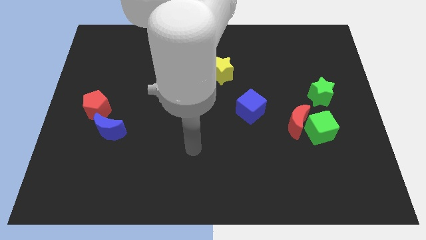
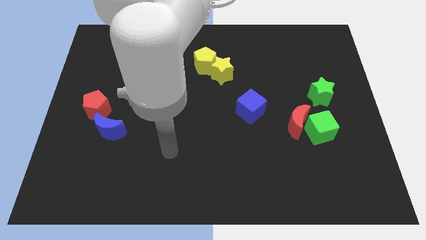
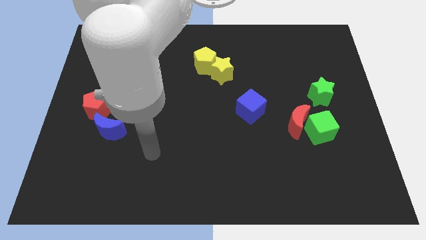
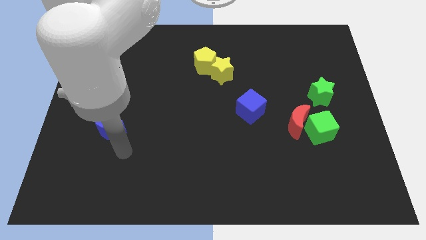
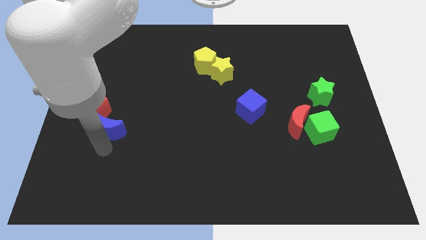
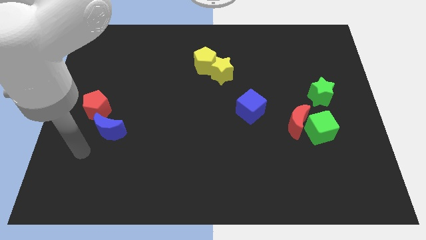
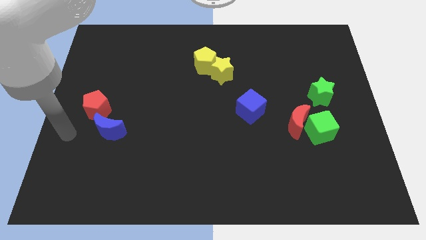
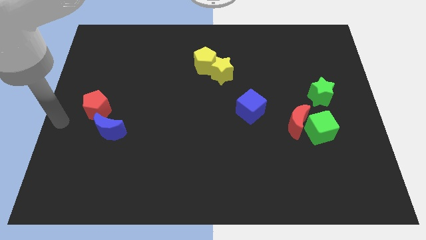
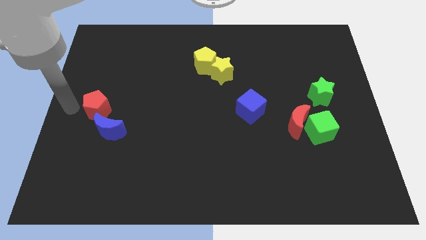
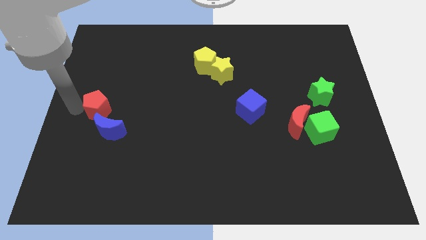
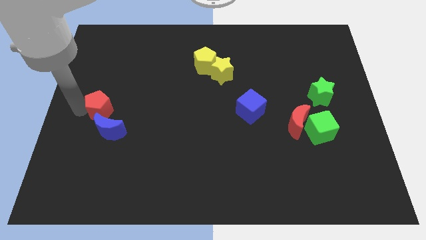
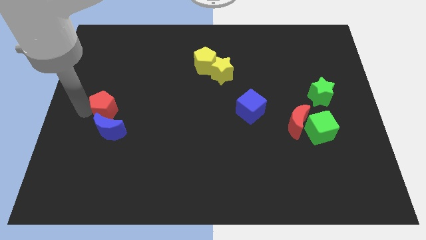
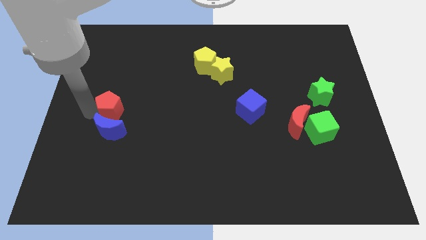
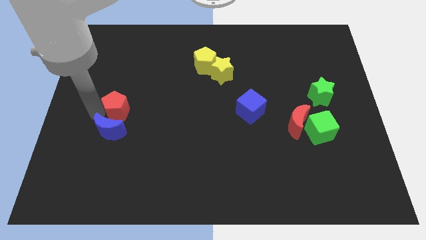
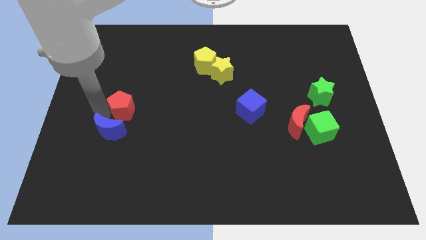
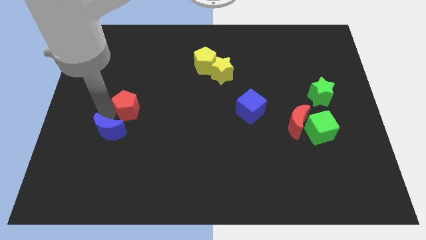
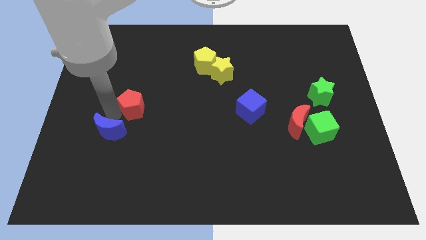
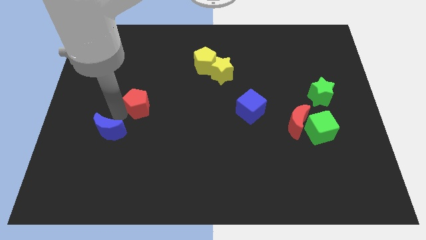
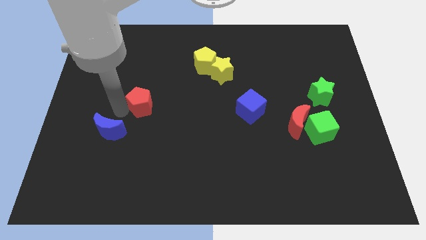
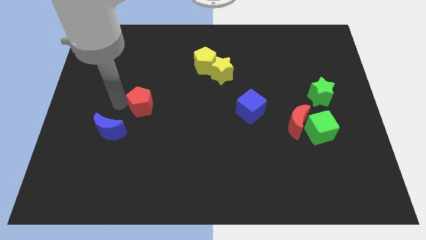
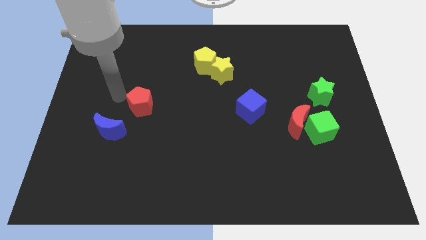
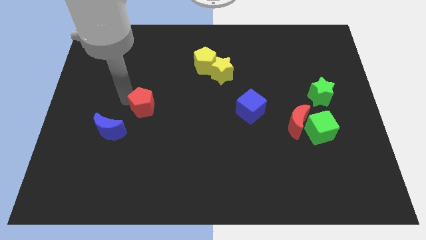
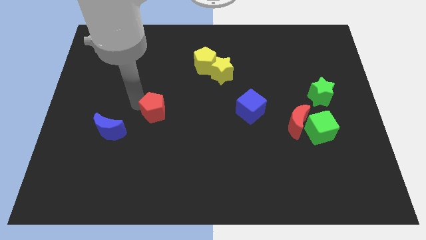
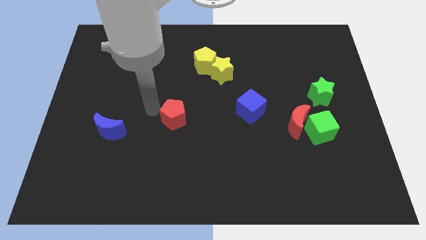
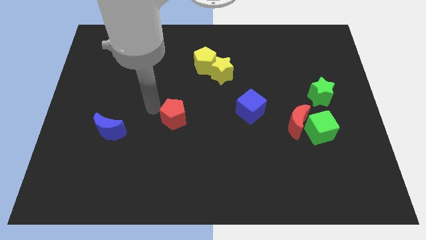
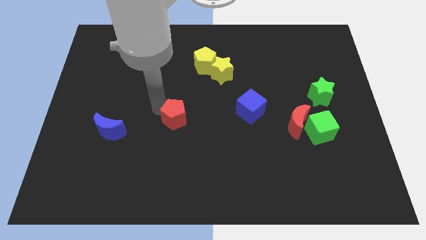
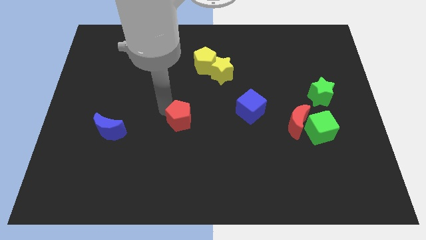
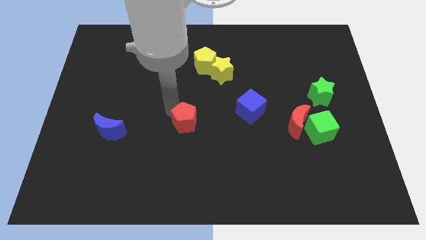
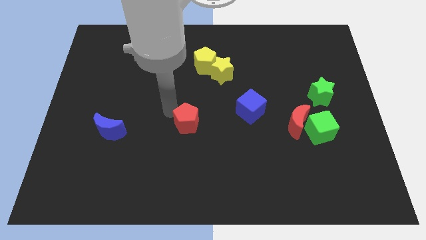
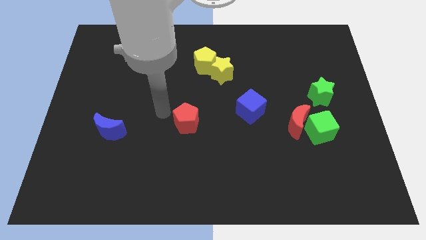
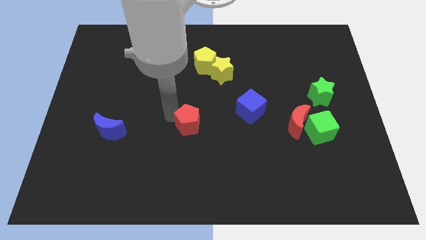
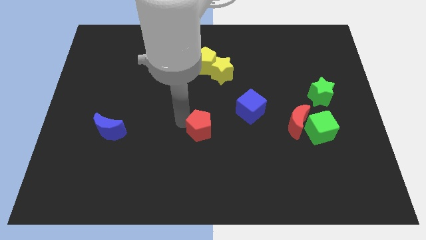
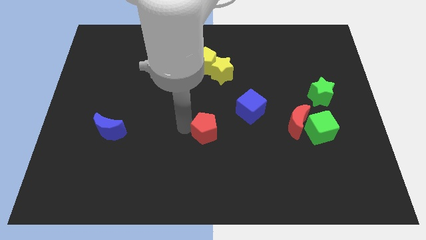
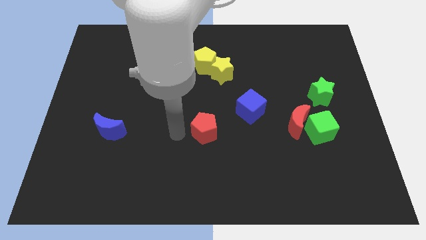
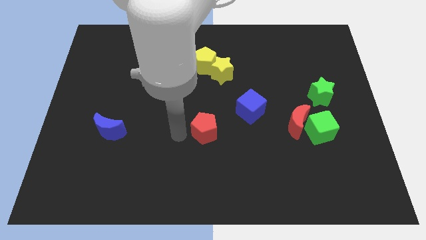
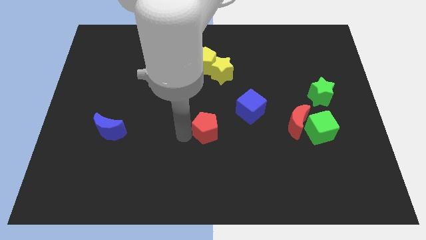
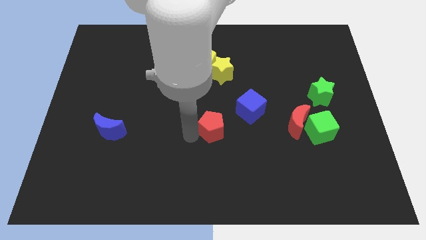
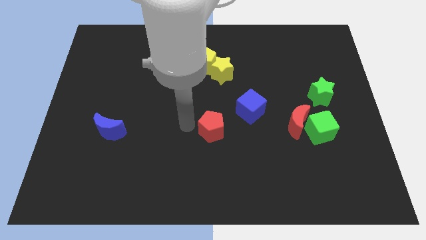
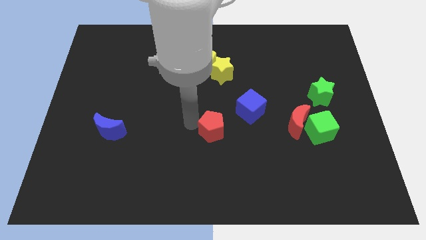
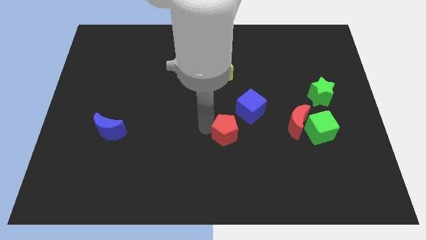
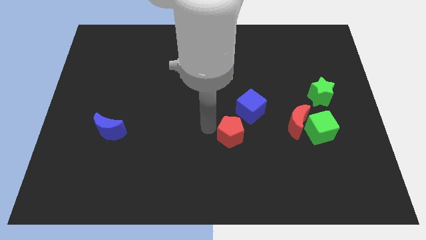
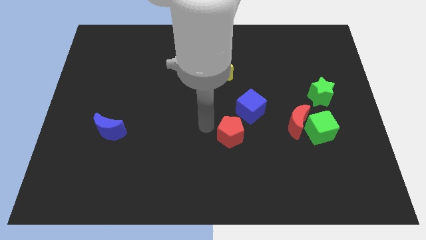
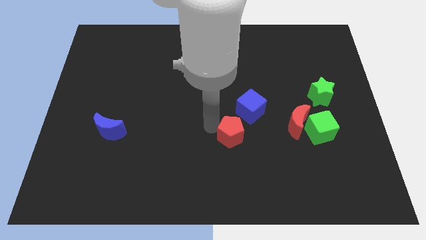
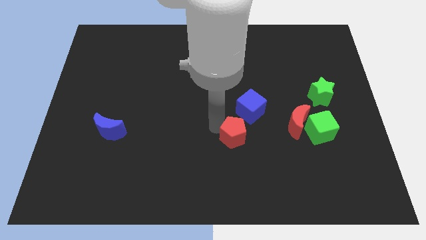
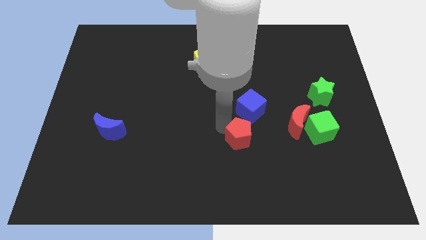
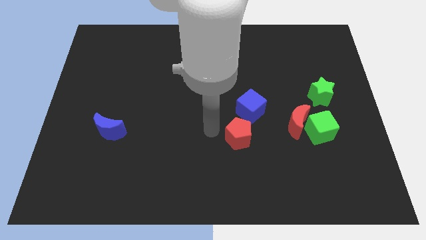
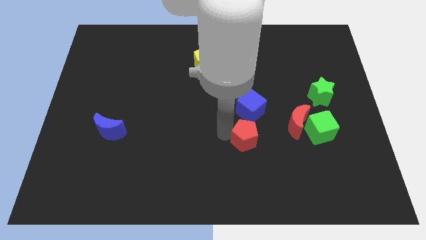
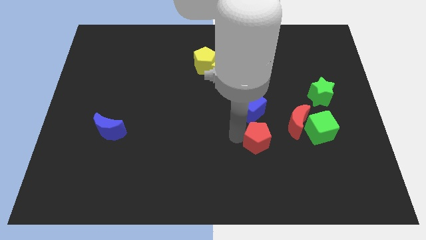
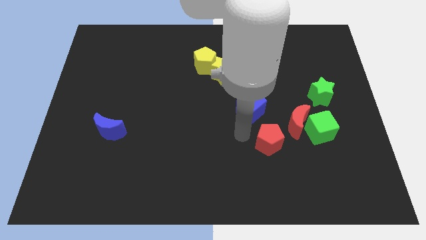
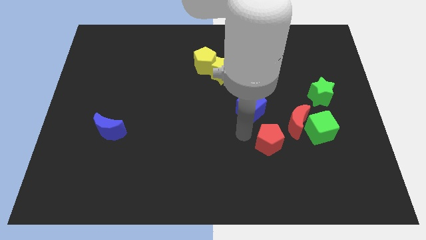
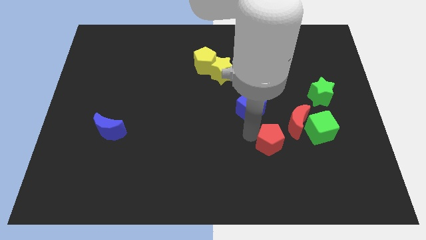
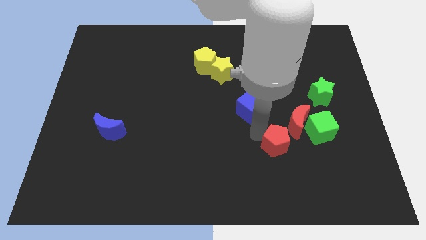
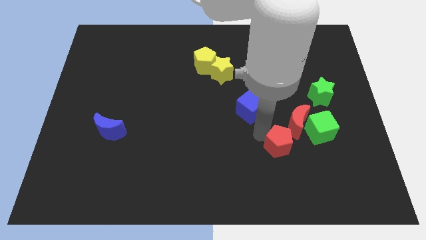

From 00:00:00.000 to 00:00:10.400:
push the red pentagon to the bottom left of the green cube

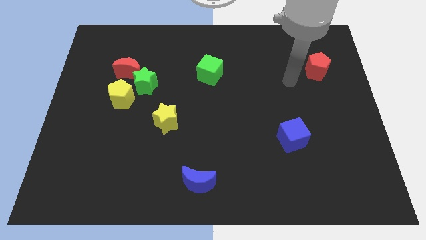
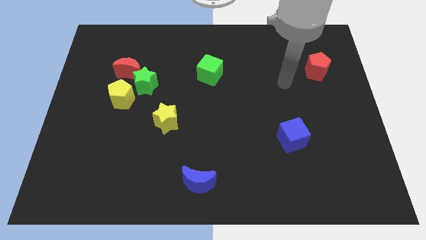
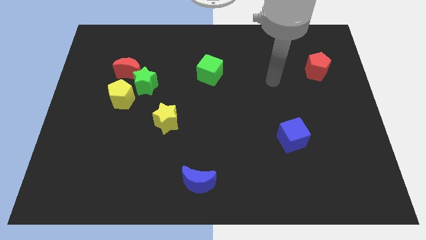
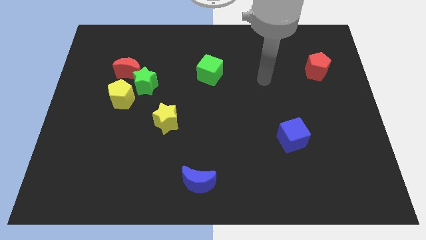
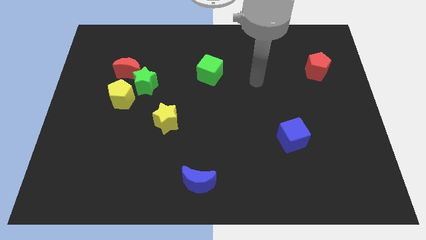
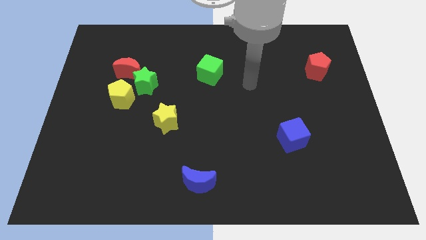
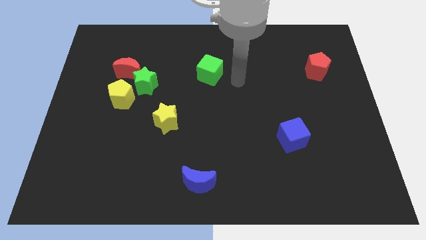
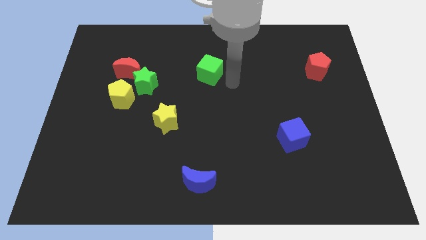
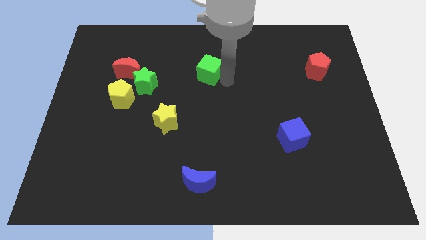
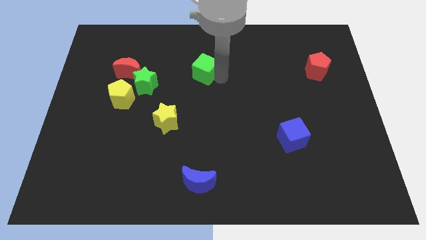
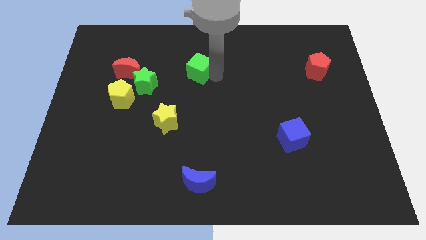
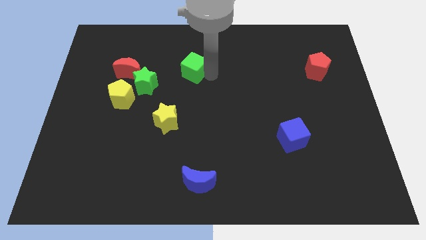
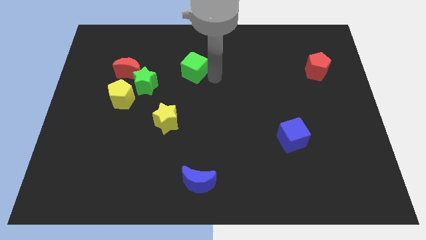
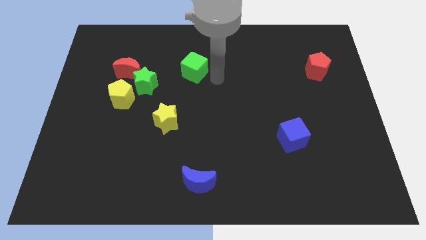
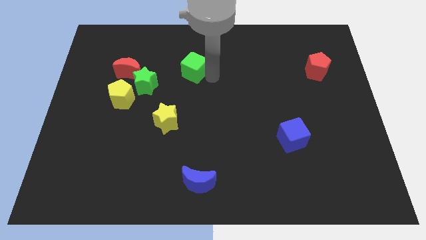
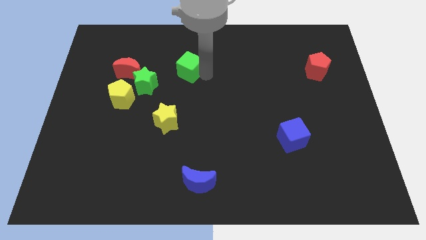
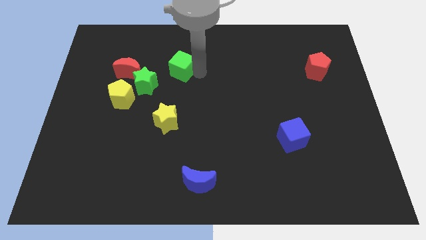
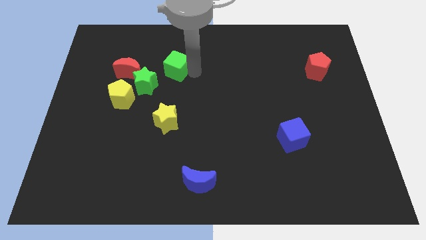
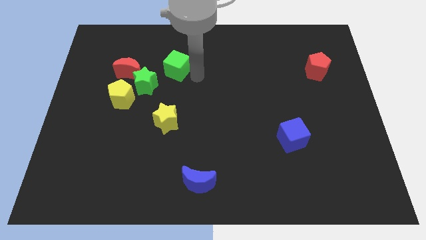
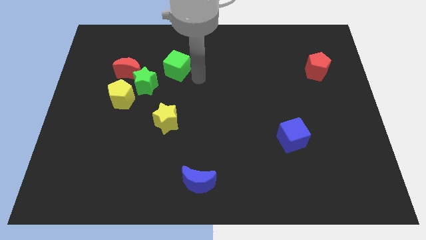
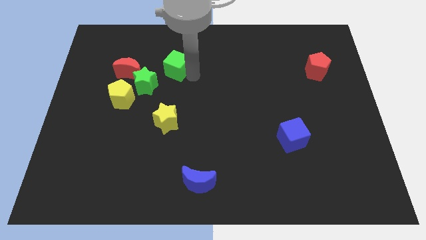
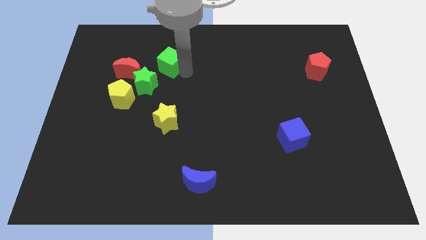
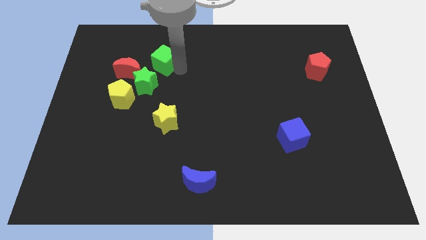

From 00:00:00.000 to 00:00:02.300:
slide the green cube to the top side of the green star

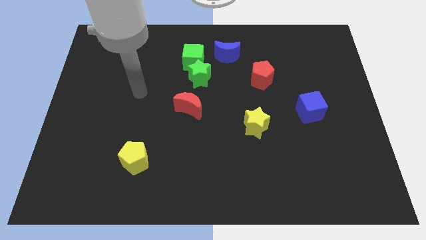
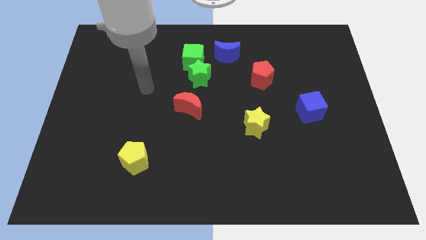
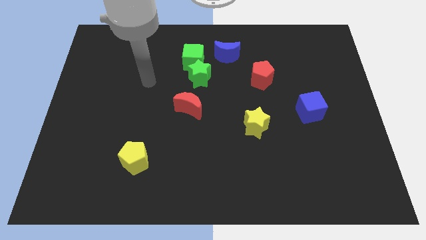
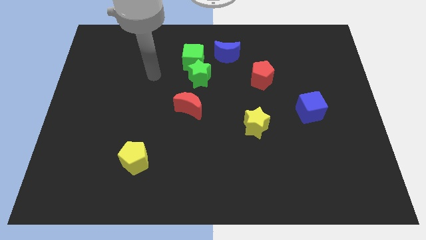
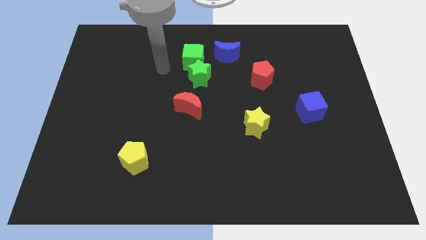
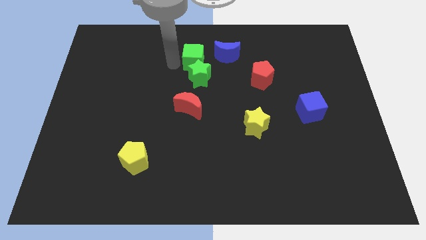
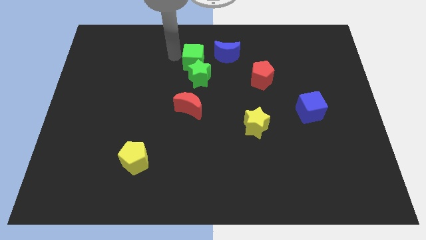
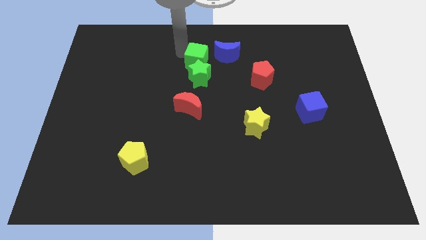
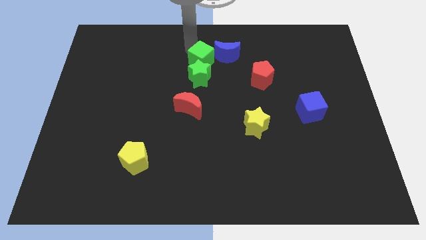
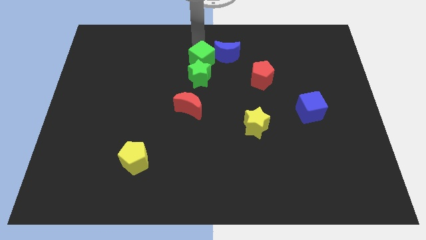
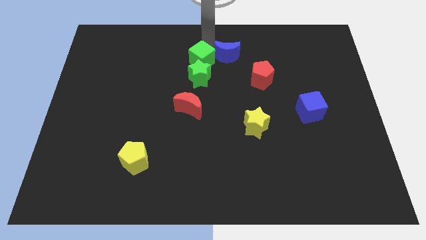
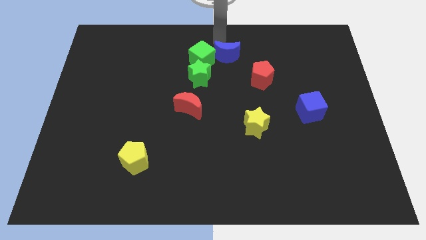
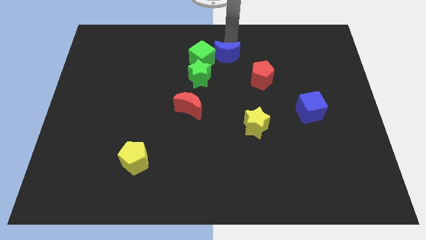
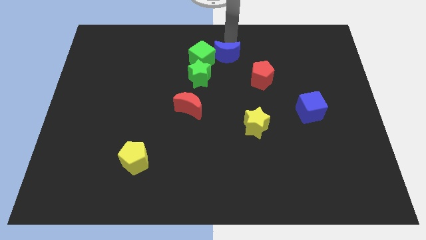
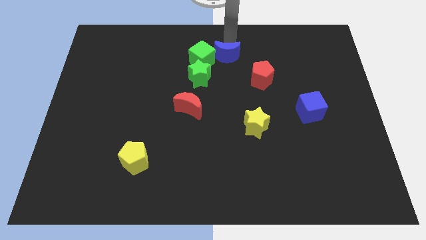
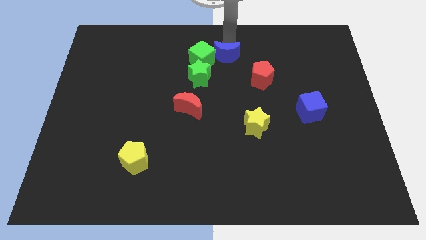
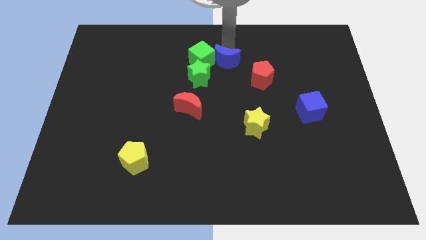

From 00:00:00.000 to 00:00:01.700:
slide the blue moon to the bottom right side of the green cube
